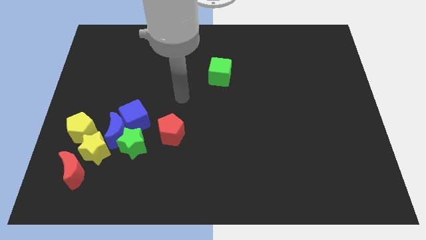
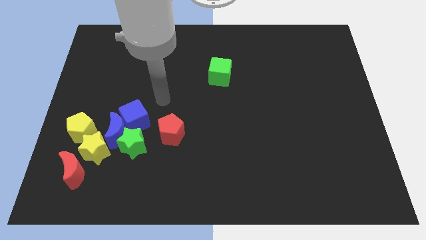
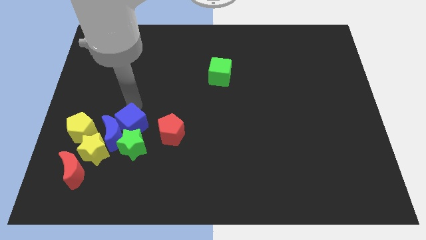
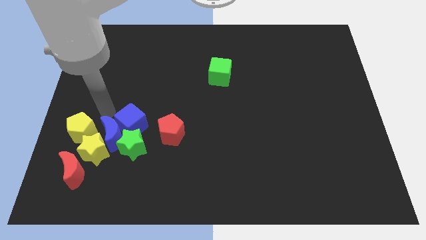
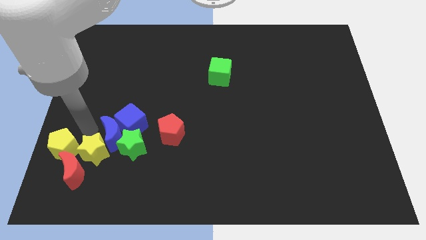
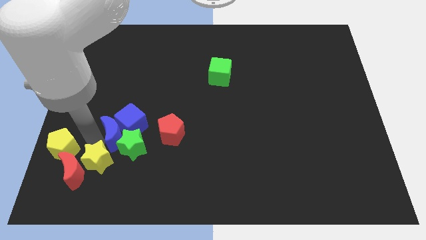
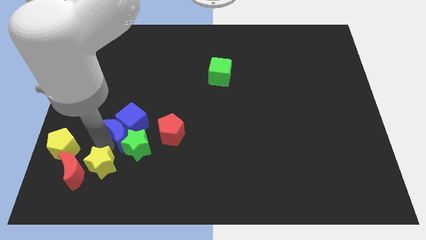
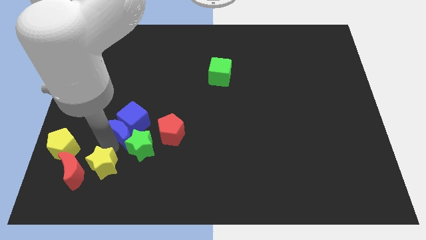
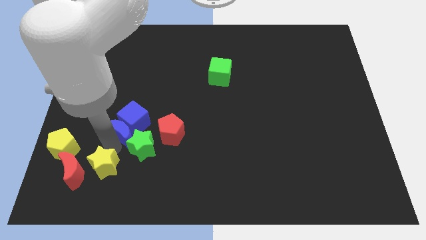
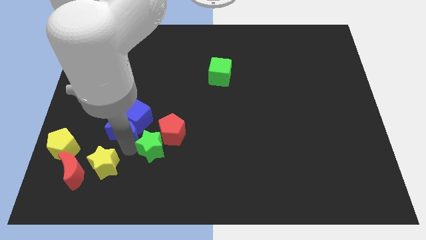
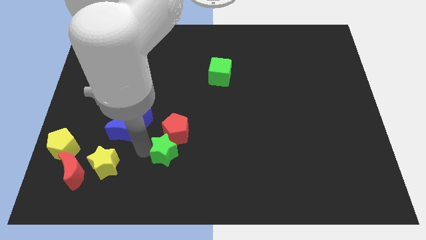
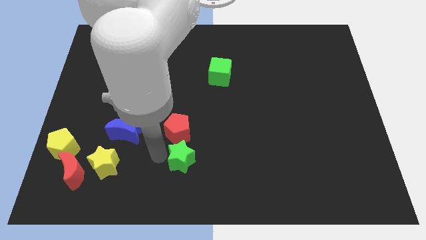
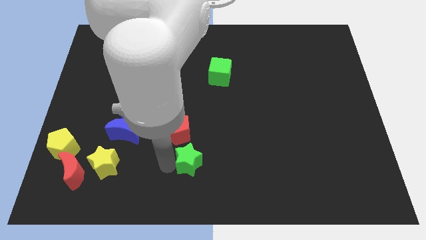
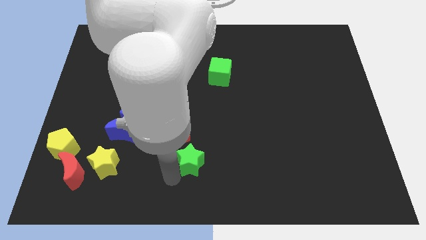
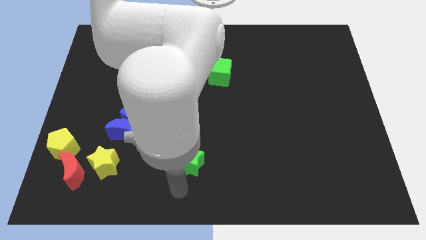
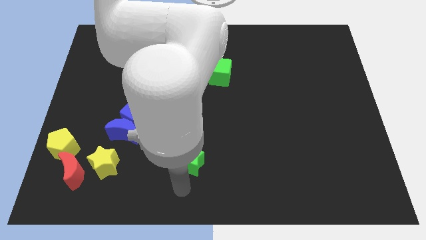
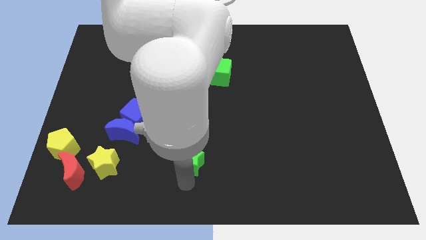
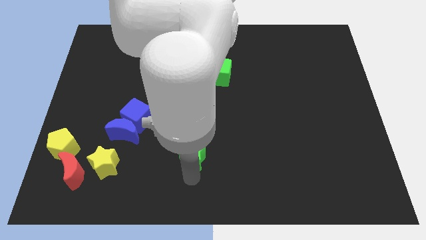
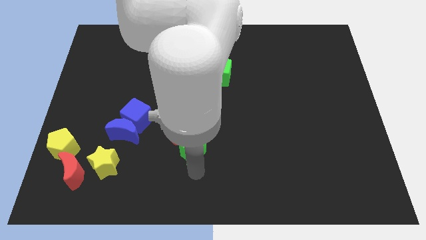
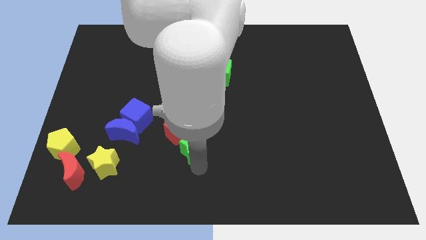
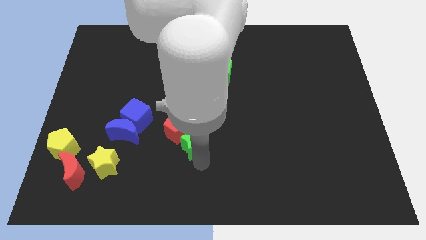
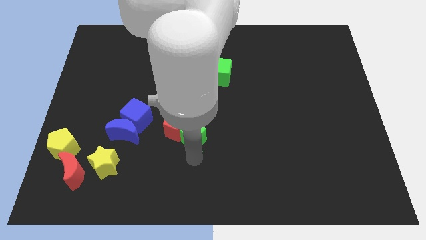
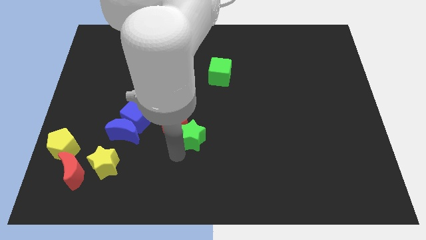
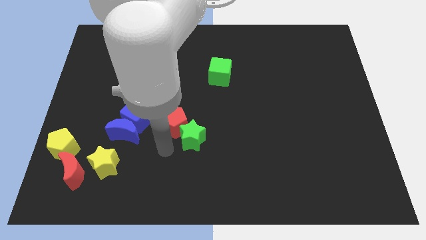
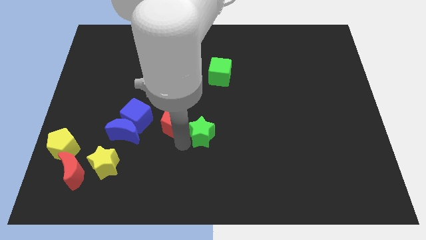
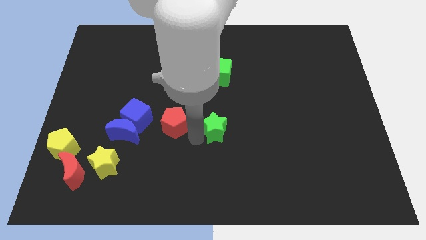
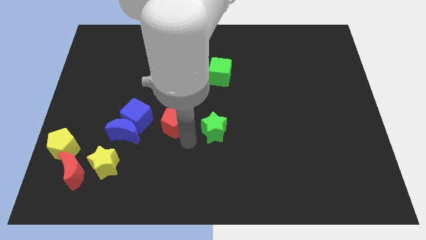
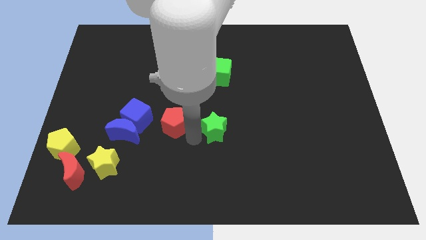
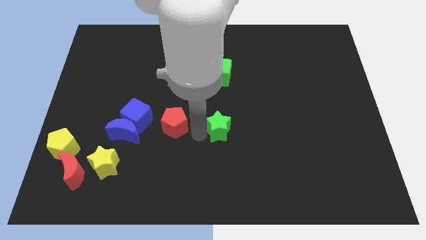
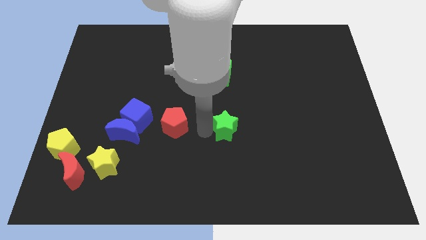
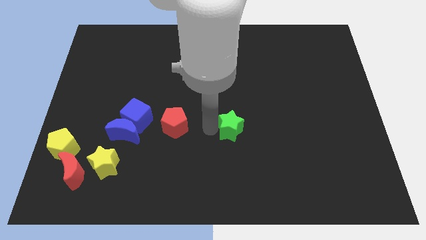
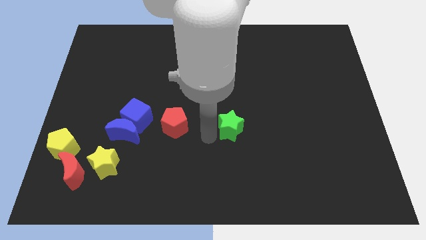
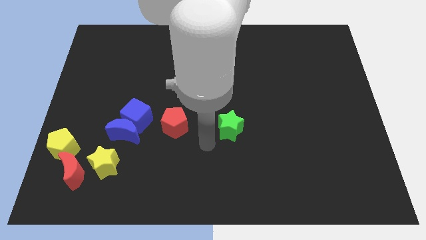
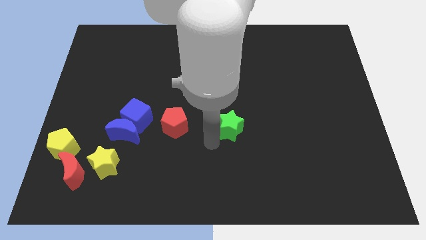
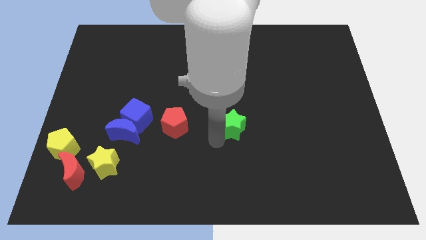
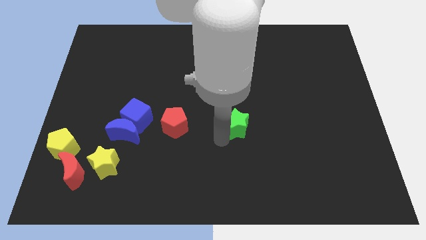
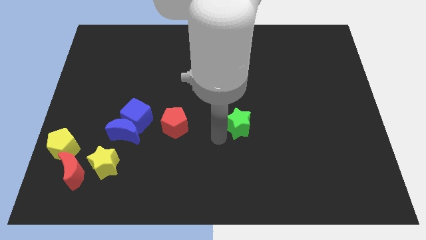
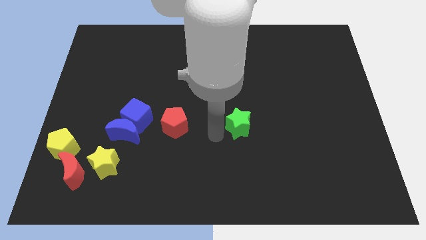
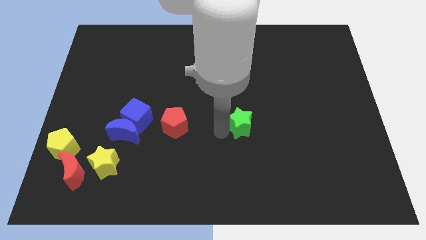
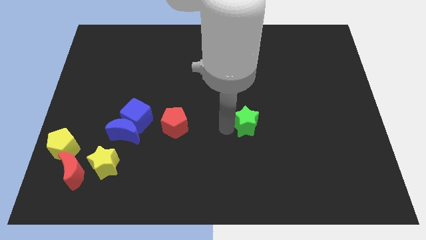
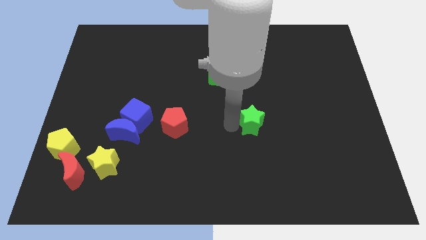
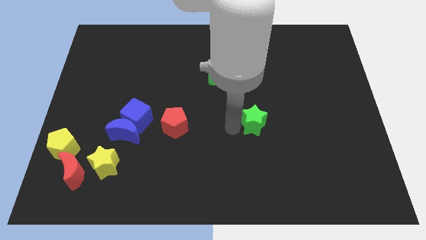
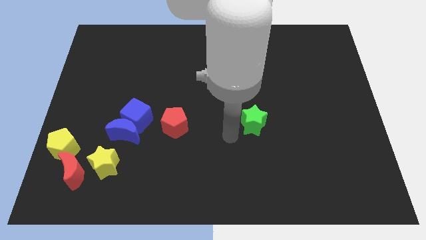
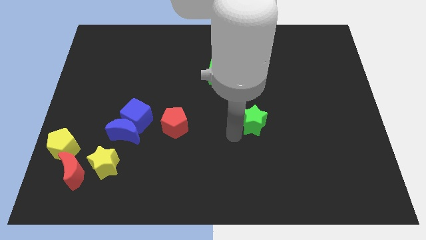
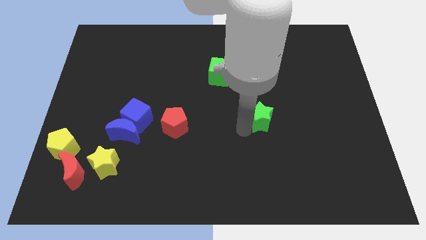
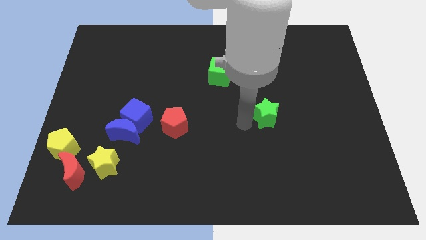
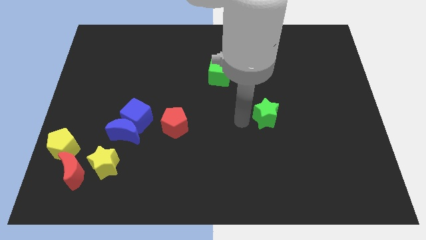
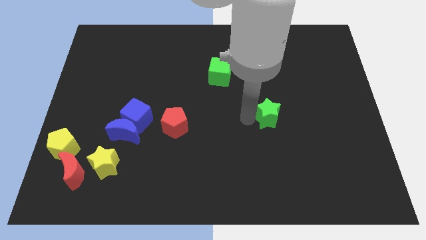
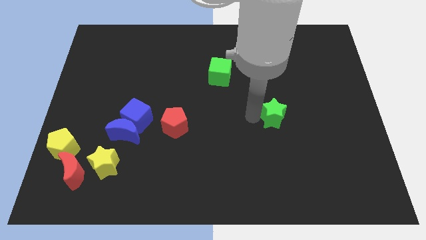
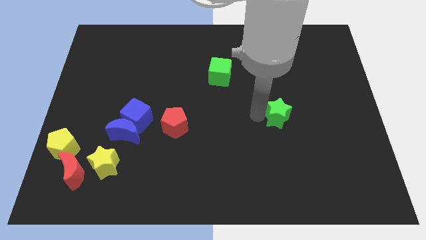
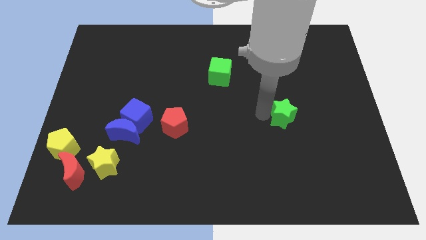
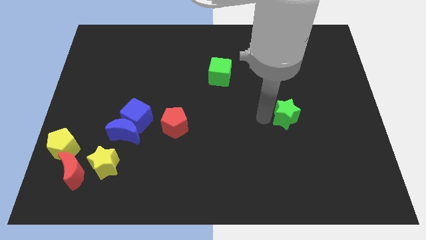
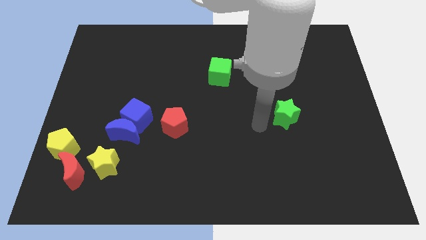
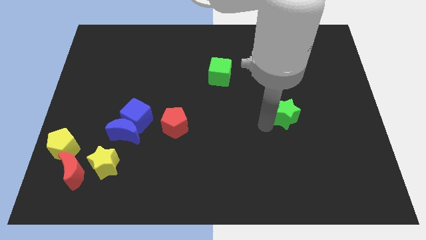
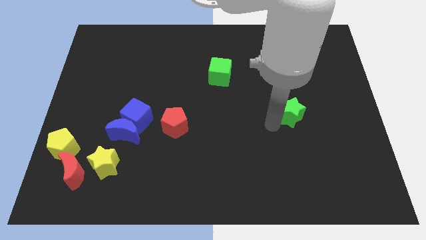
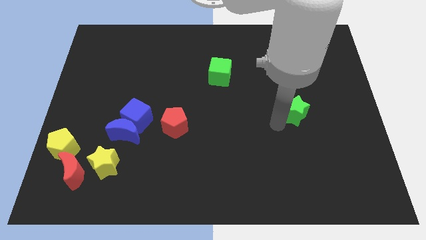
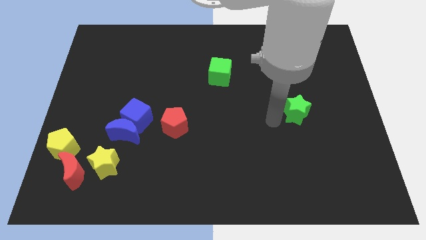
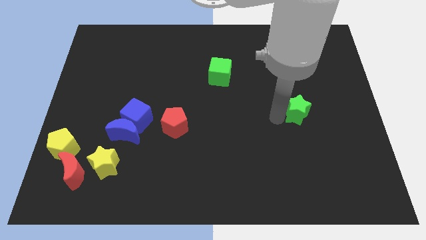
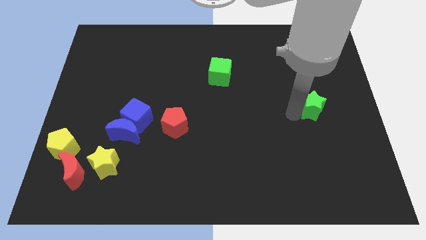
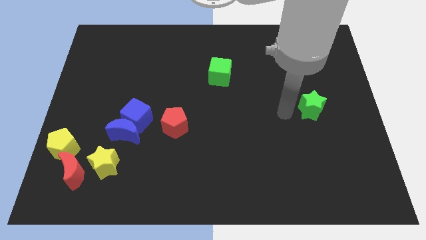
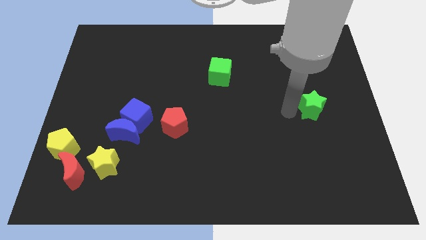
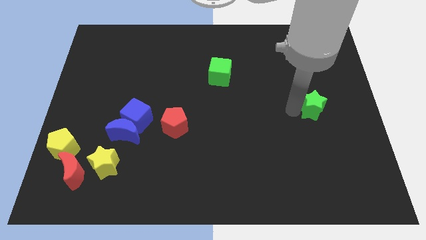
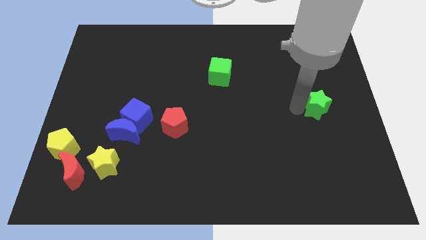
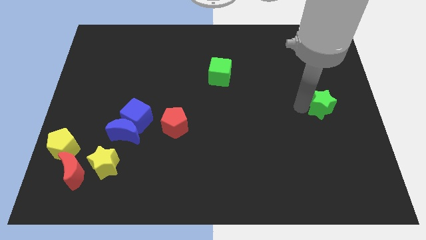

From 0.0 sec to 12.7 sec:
put the green star to the center right
